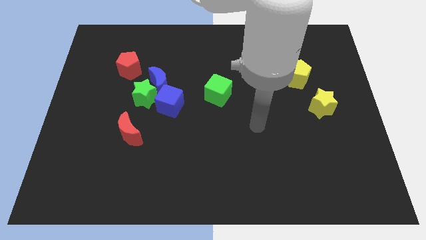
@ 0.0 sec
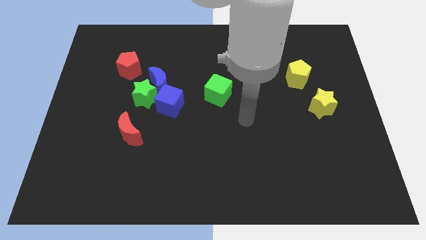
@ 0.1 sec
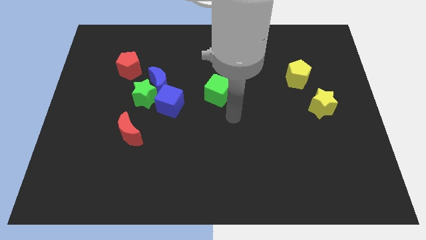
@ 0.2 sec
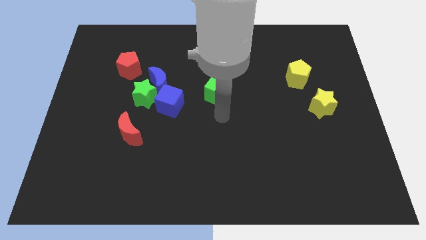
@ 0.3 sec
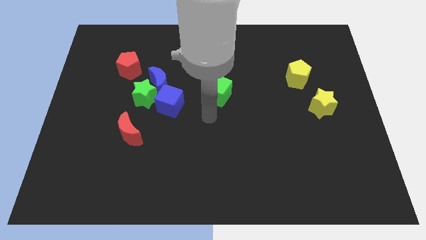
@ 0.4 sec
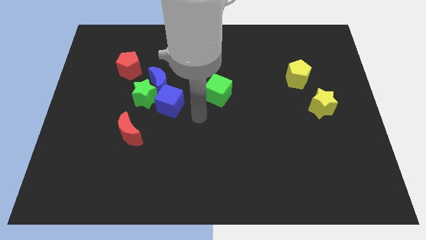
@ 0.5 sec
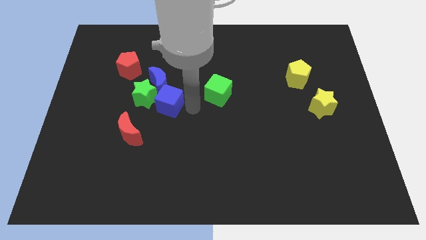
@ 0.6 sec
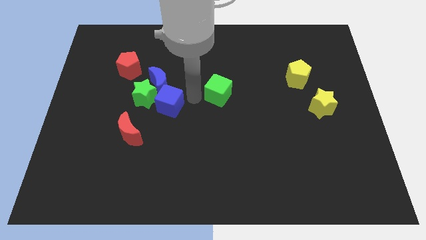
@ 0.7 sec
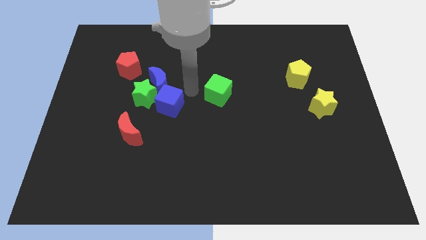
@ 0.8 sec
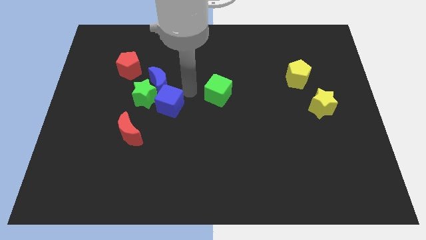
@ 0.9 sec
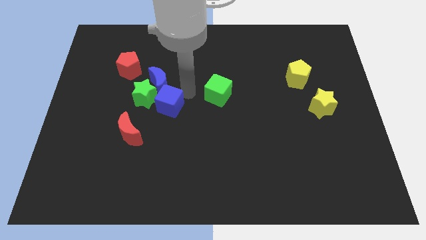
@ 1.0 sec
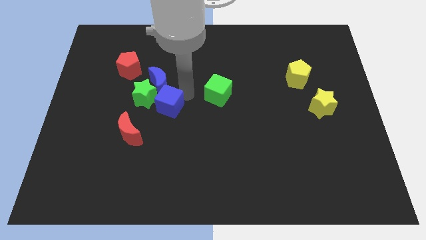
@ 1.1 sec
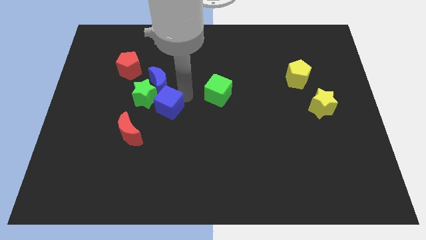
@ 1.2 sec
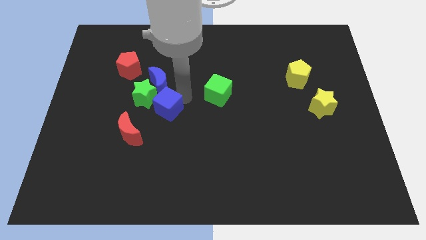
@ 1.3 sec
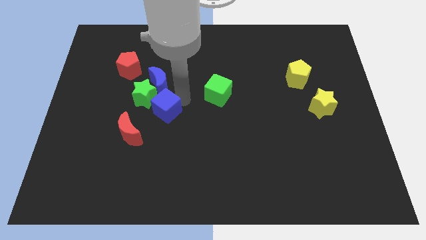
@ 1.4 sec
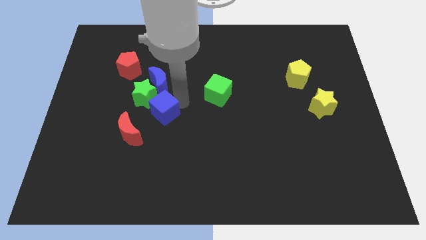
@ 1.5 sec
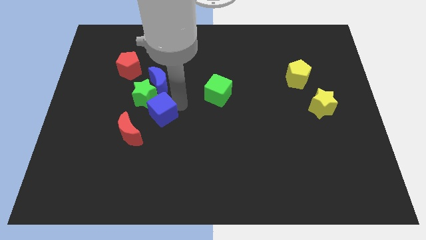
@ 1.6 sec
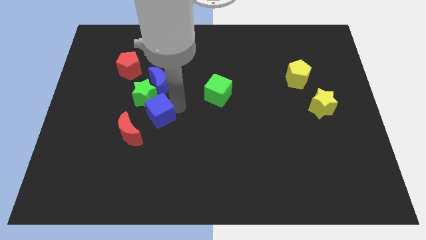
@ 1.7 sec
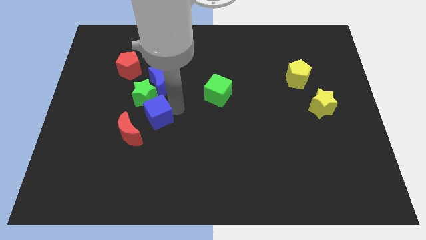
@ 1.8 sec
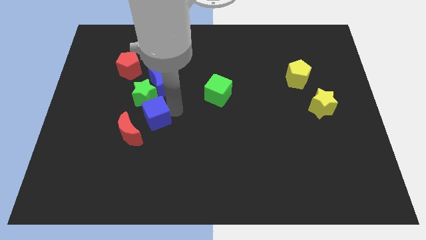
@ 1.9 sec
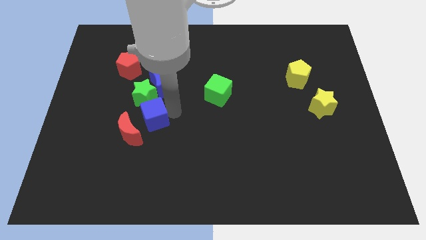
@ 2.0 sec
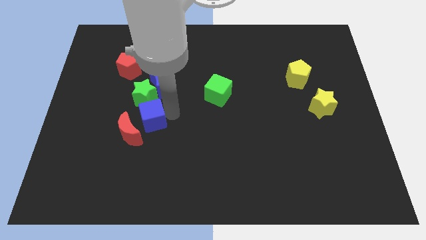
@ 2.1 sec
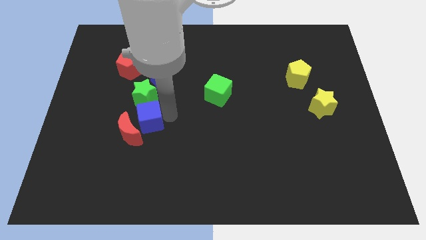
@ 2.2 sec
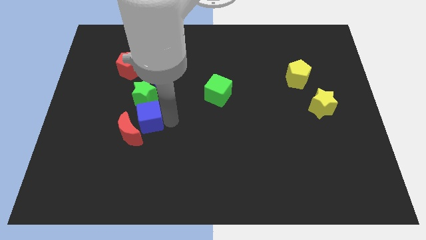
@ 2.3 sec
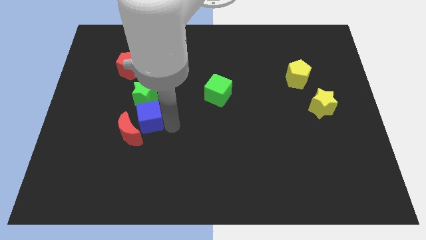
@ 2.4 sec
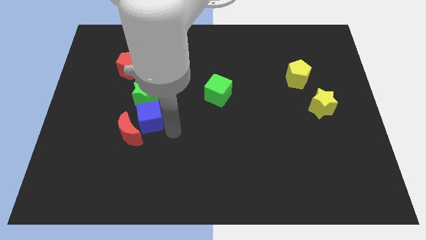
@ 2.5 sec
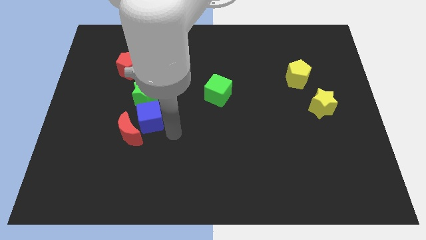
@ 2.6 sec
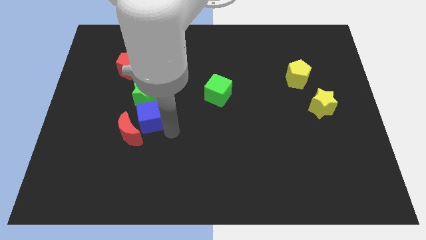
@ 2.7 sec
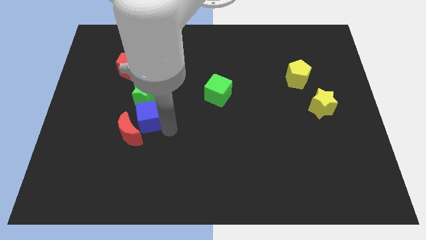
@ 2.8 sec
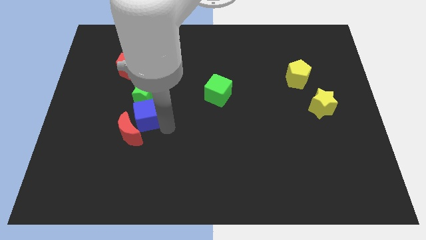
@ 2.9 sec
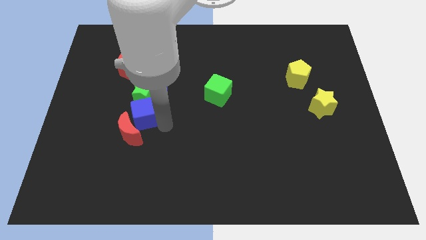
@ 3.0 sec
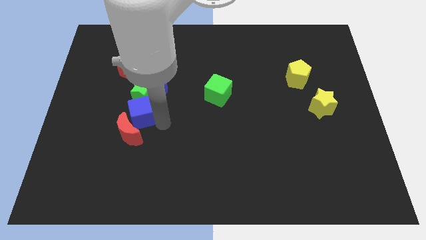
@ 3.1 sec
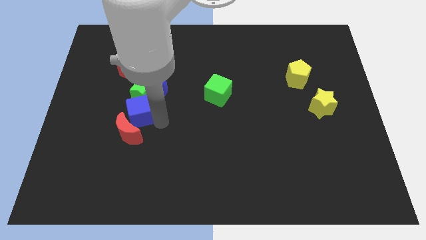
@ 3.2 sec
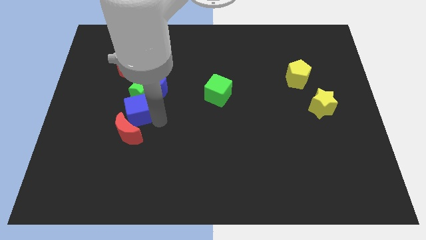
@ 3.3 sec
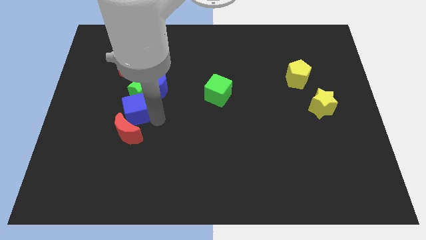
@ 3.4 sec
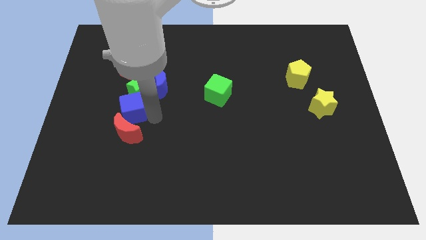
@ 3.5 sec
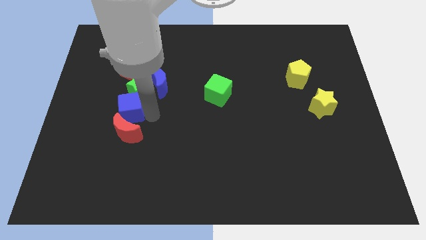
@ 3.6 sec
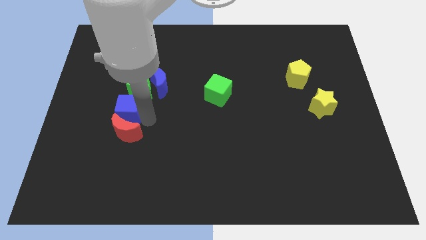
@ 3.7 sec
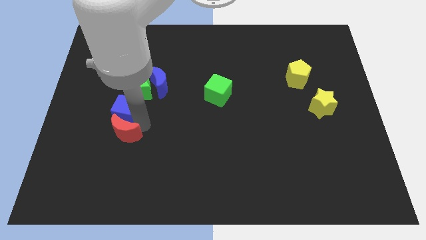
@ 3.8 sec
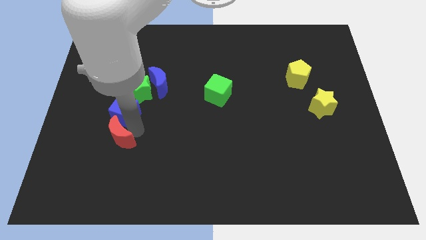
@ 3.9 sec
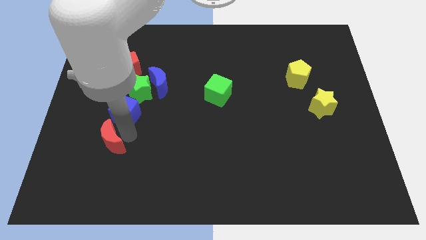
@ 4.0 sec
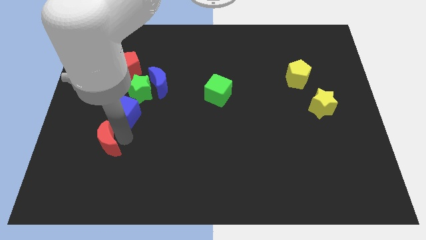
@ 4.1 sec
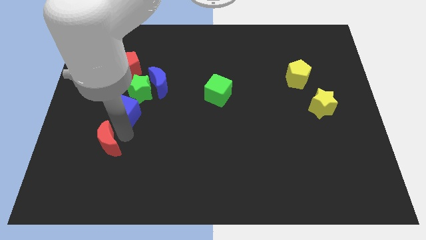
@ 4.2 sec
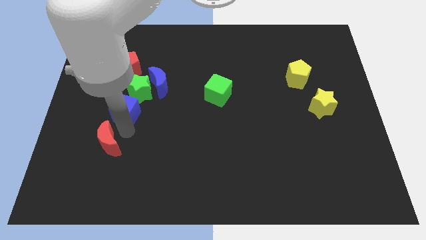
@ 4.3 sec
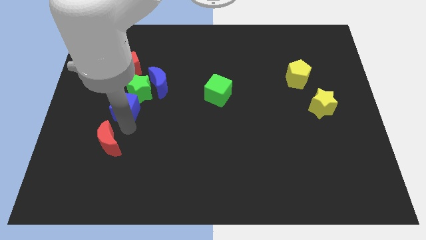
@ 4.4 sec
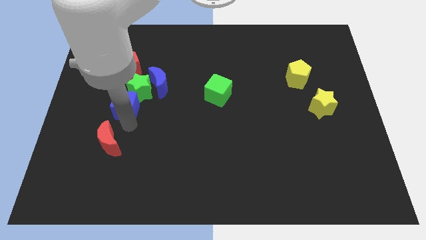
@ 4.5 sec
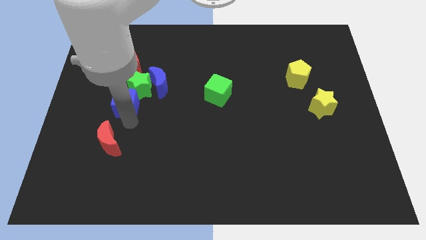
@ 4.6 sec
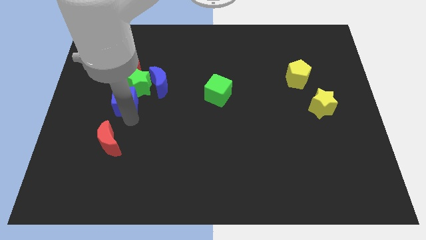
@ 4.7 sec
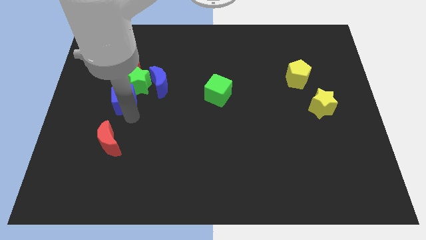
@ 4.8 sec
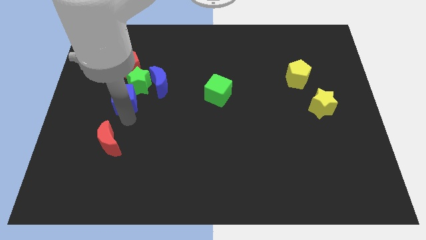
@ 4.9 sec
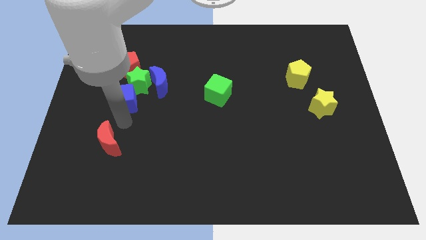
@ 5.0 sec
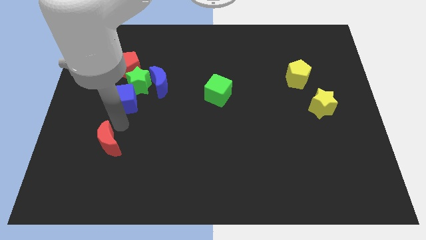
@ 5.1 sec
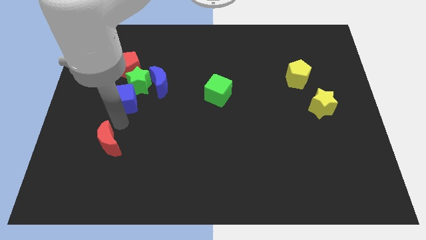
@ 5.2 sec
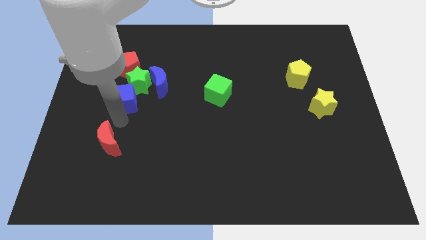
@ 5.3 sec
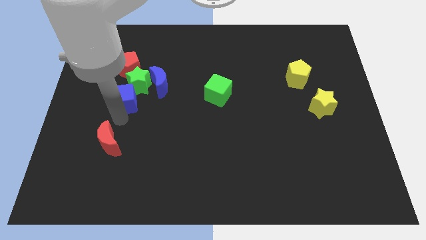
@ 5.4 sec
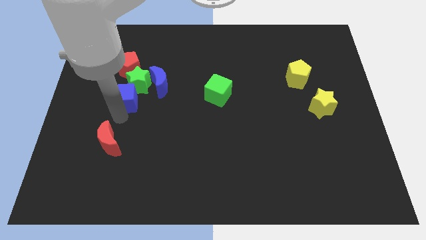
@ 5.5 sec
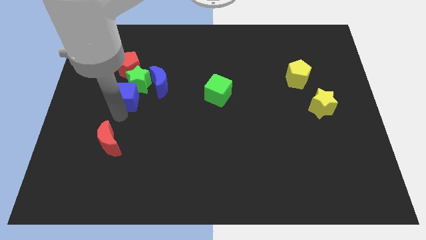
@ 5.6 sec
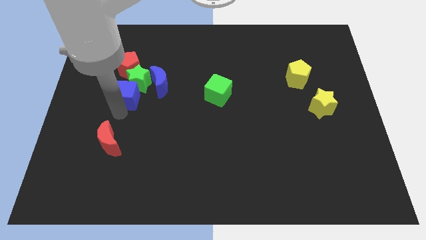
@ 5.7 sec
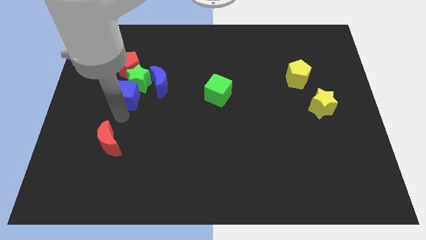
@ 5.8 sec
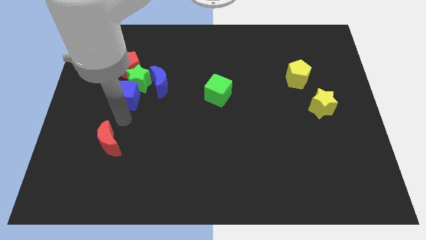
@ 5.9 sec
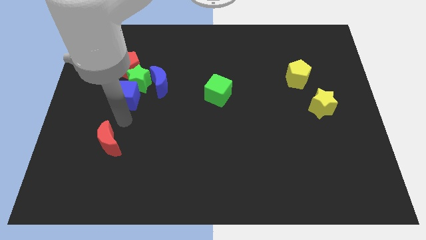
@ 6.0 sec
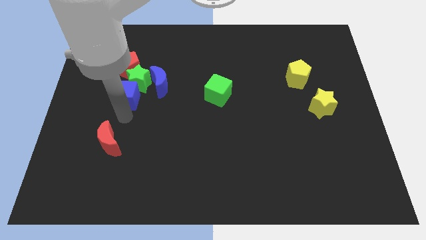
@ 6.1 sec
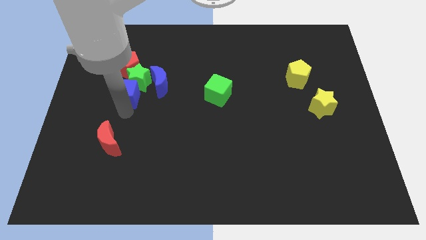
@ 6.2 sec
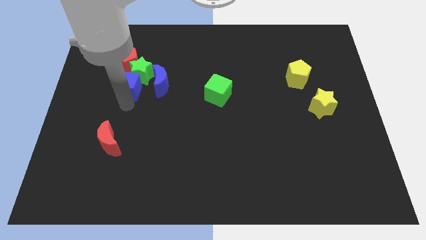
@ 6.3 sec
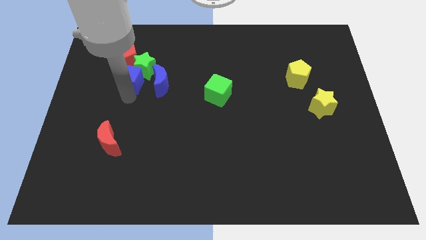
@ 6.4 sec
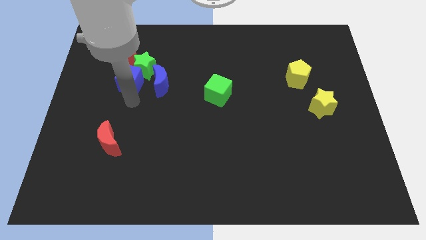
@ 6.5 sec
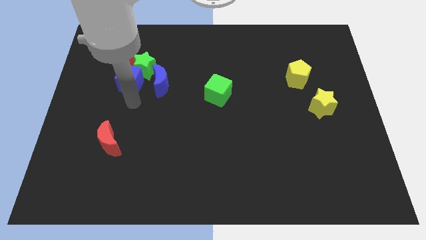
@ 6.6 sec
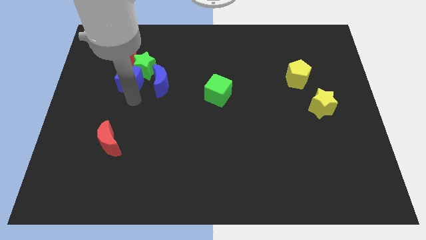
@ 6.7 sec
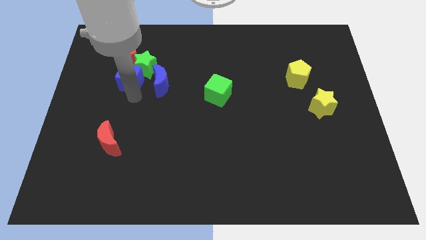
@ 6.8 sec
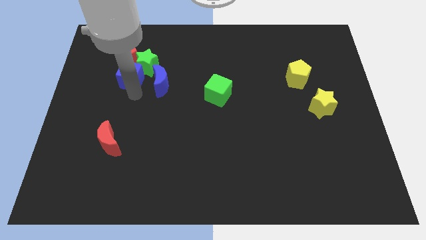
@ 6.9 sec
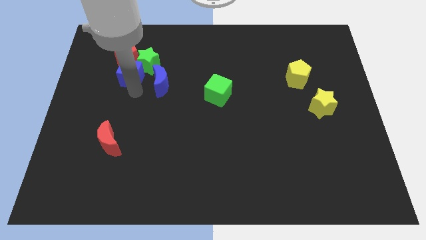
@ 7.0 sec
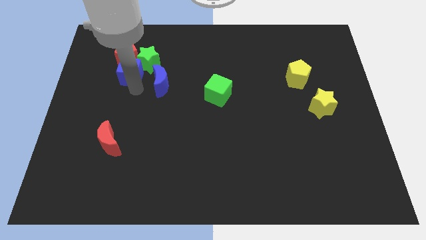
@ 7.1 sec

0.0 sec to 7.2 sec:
push the blue cube next to the red pentagon

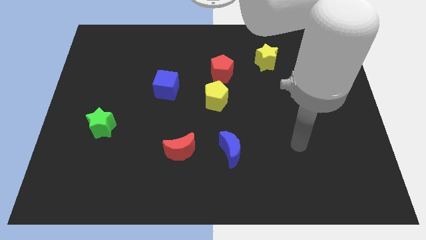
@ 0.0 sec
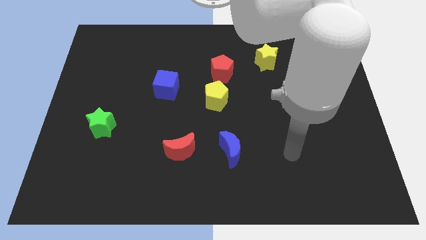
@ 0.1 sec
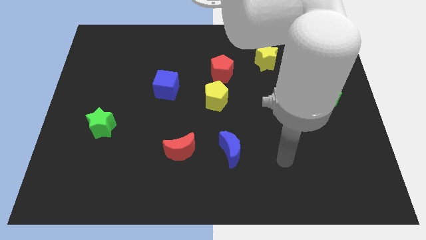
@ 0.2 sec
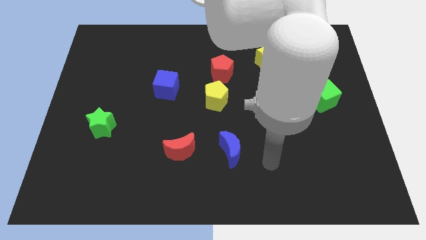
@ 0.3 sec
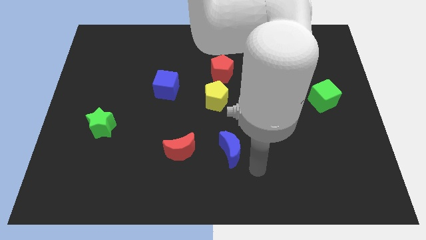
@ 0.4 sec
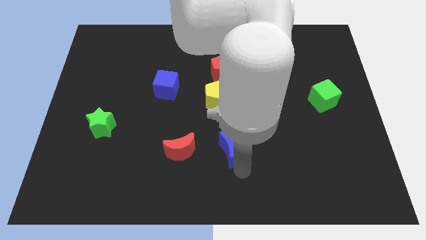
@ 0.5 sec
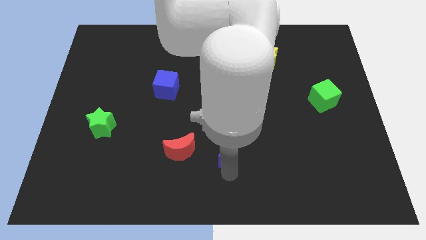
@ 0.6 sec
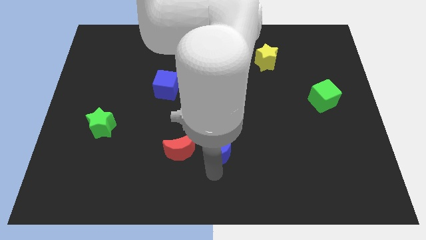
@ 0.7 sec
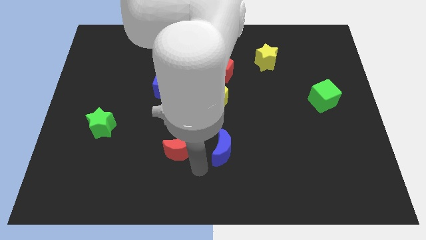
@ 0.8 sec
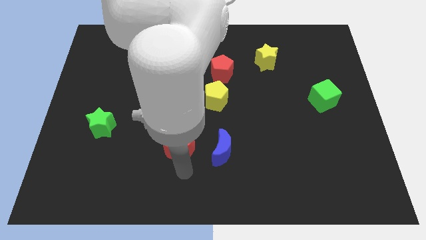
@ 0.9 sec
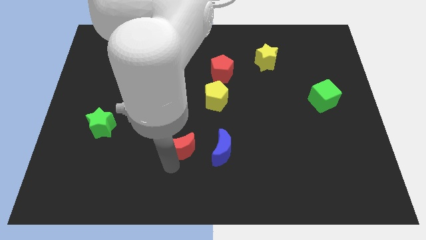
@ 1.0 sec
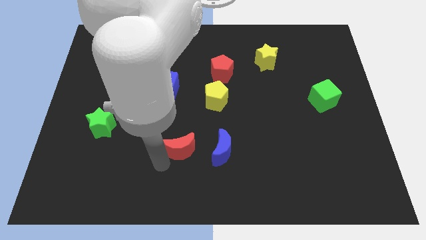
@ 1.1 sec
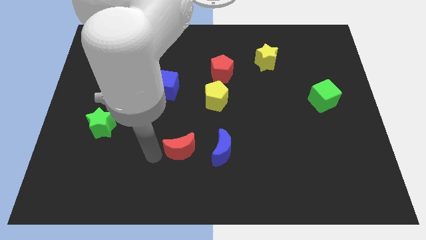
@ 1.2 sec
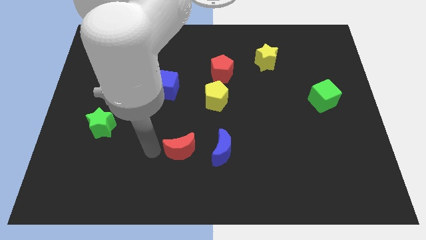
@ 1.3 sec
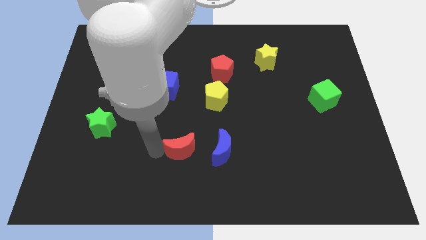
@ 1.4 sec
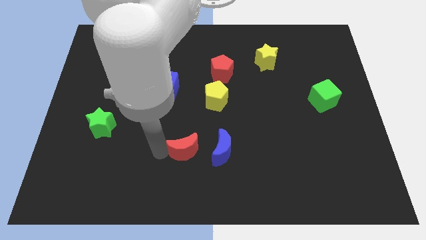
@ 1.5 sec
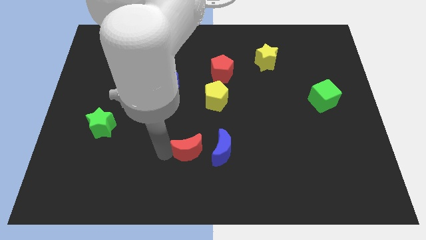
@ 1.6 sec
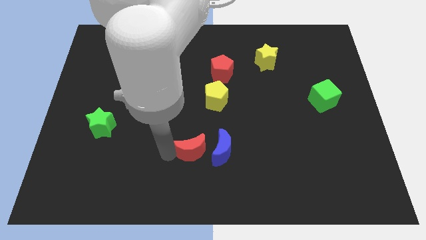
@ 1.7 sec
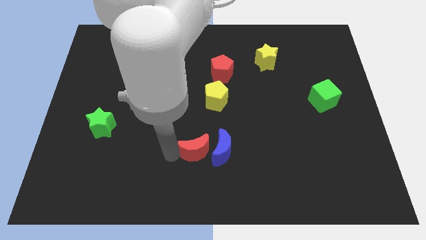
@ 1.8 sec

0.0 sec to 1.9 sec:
push the red moon towards the blue moon
